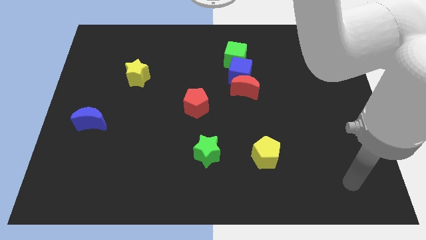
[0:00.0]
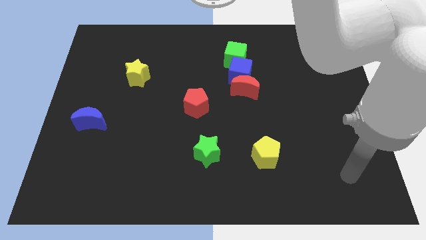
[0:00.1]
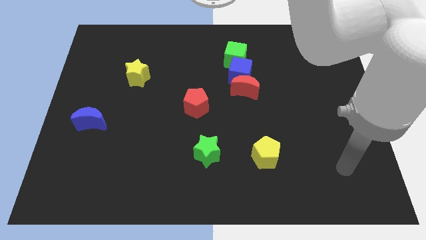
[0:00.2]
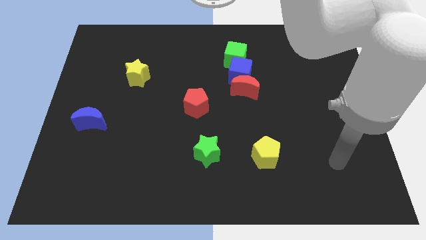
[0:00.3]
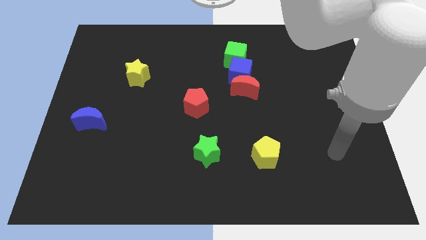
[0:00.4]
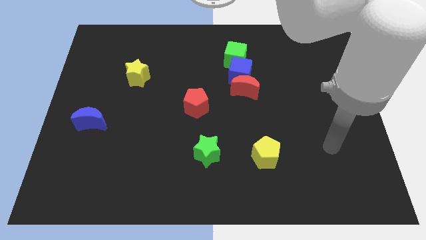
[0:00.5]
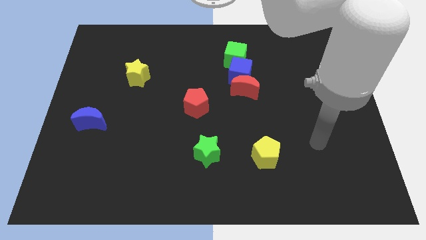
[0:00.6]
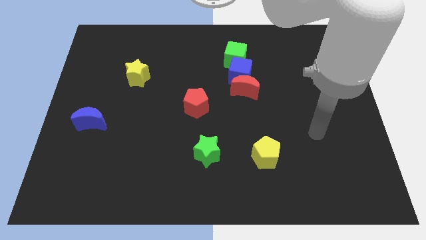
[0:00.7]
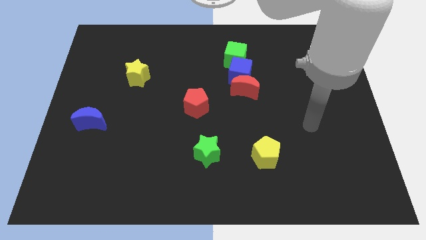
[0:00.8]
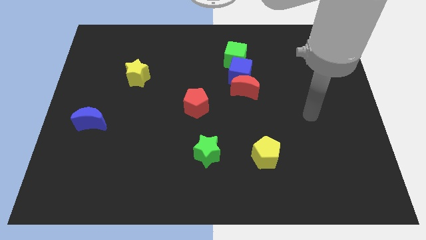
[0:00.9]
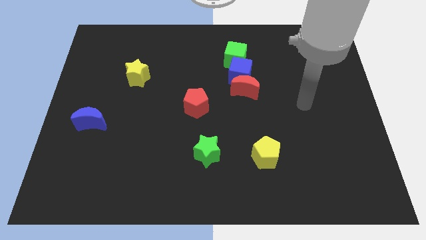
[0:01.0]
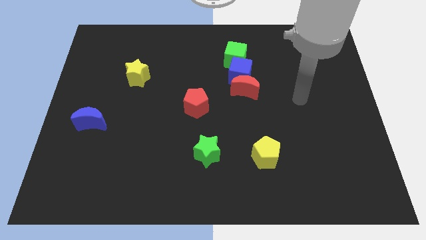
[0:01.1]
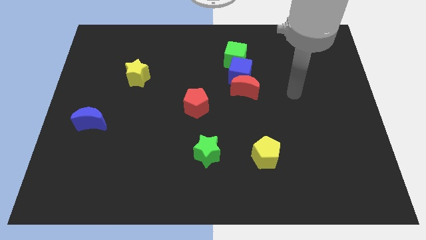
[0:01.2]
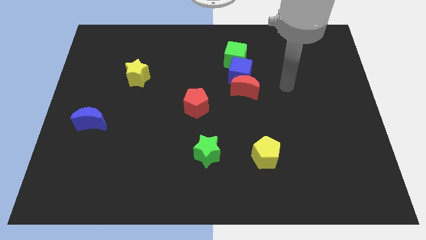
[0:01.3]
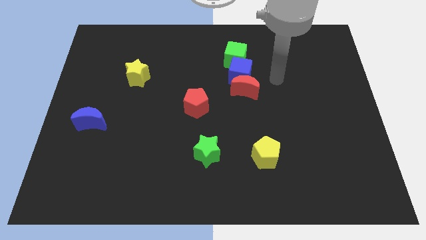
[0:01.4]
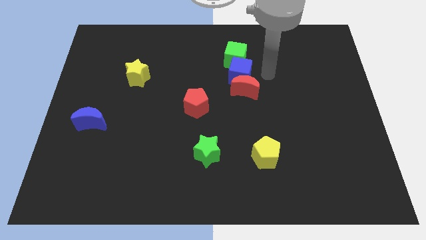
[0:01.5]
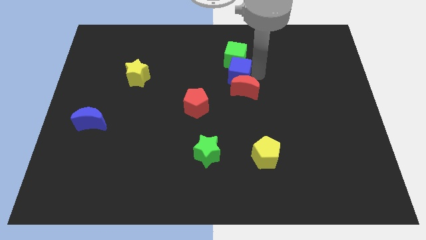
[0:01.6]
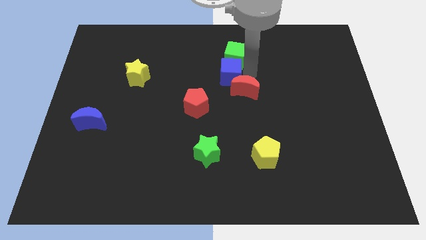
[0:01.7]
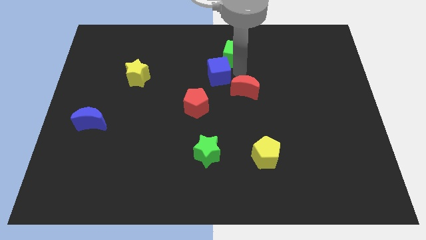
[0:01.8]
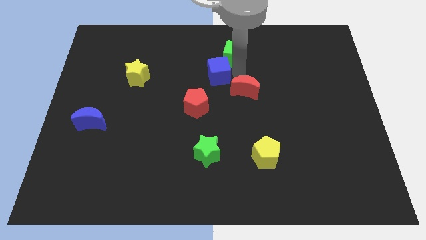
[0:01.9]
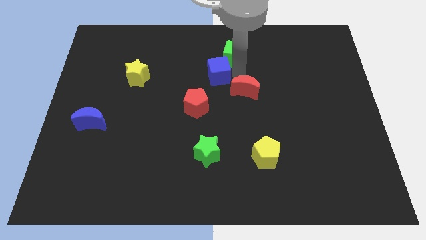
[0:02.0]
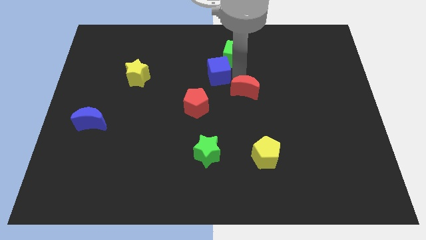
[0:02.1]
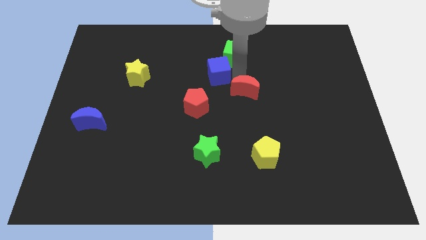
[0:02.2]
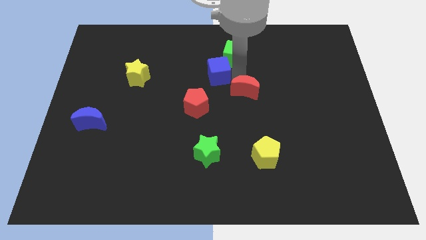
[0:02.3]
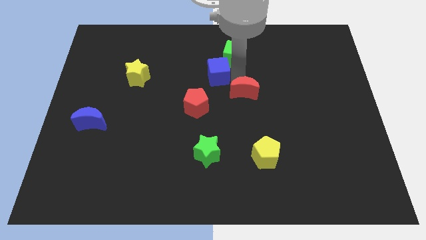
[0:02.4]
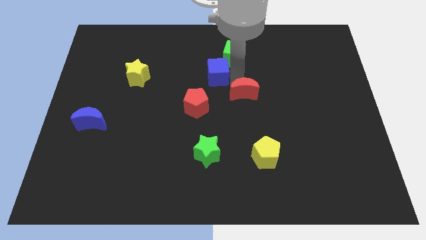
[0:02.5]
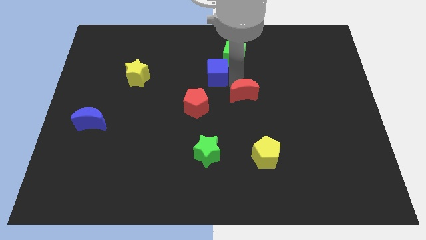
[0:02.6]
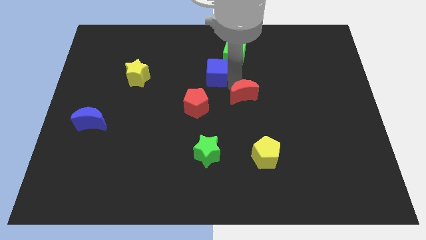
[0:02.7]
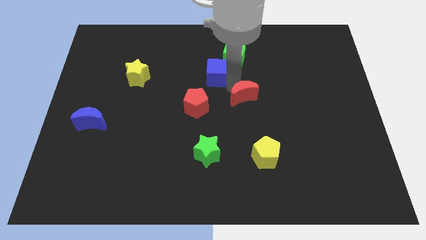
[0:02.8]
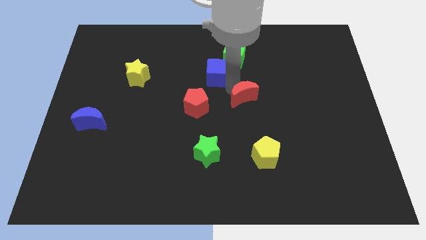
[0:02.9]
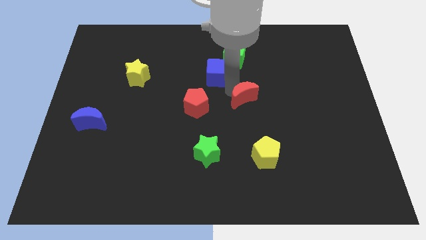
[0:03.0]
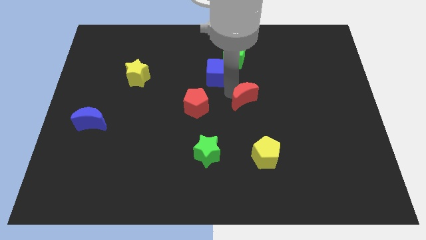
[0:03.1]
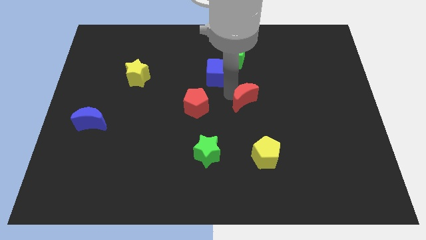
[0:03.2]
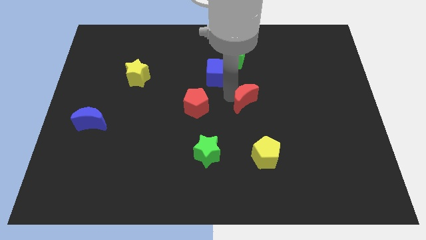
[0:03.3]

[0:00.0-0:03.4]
move the red moon away from the blue cube

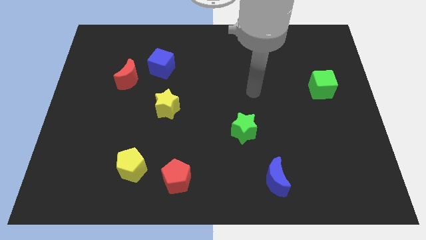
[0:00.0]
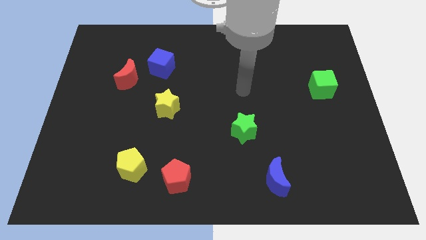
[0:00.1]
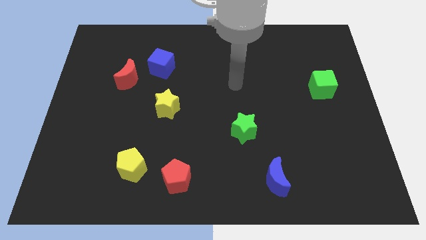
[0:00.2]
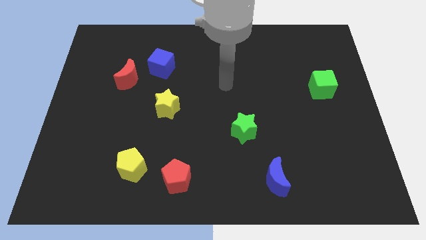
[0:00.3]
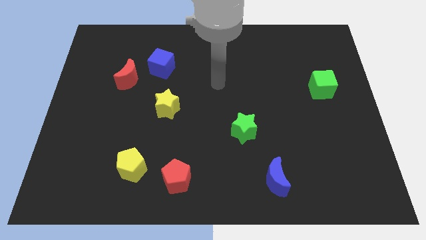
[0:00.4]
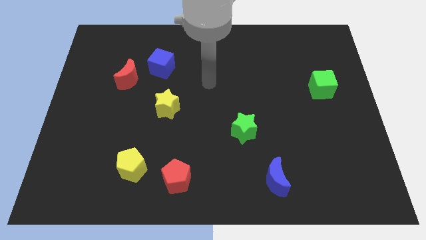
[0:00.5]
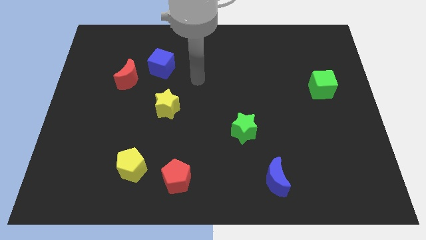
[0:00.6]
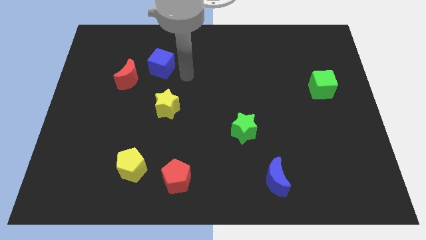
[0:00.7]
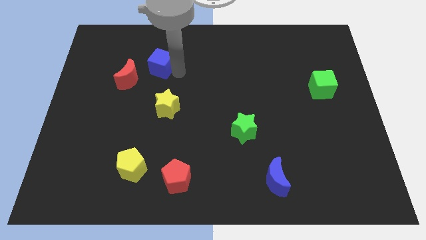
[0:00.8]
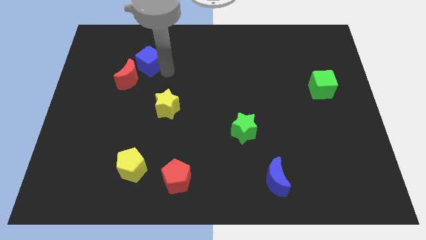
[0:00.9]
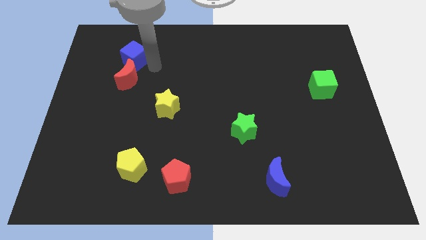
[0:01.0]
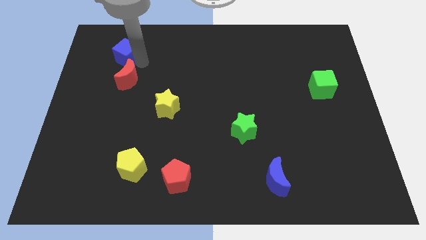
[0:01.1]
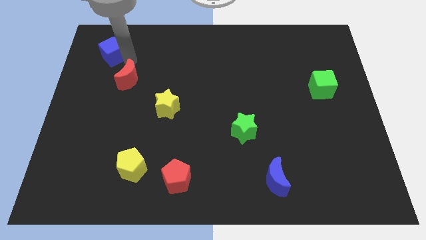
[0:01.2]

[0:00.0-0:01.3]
pull the red moon apart from the blue cube

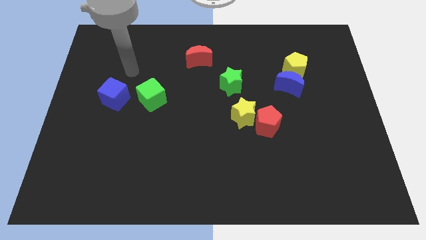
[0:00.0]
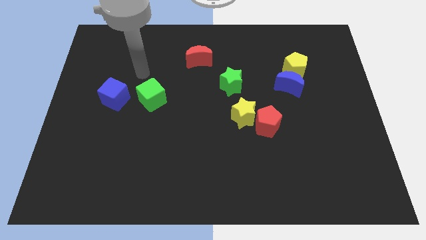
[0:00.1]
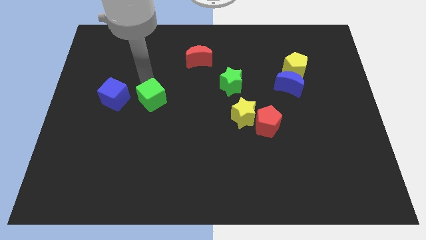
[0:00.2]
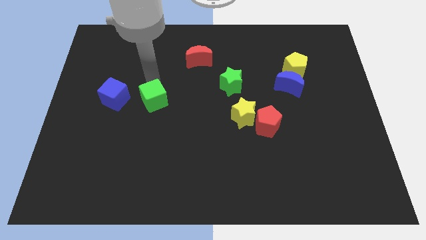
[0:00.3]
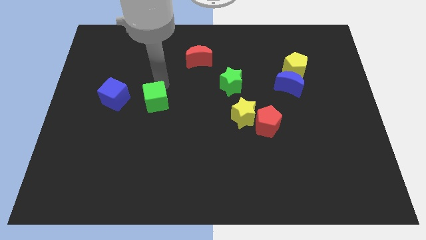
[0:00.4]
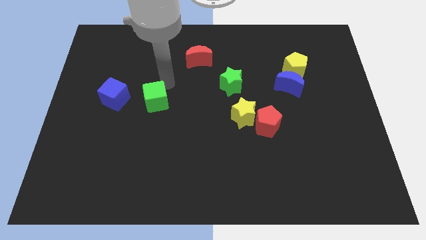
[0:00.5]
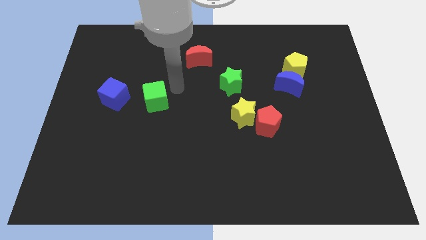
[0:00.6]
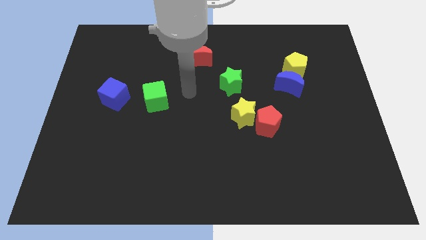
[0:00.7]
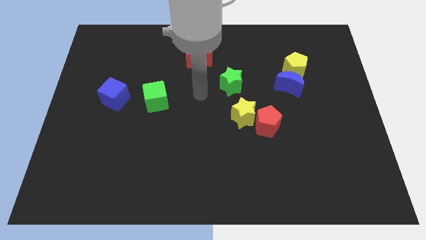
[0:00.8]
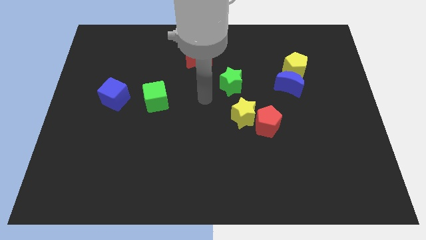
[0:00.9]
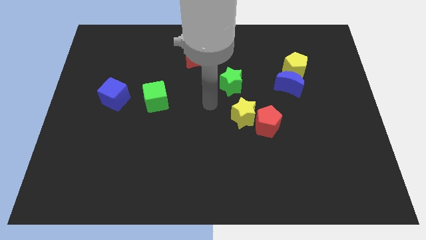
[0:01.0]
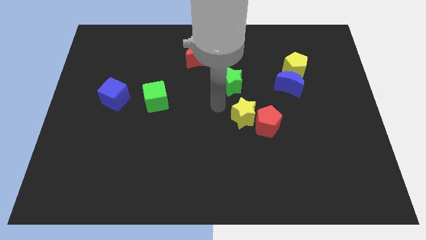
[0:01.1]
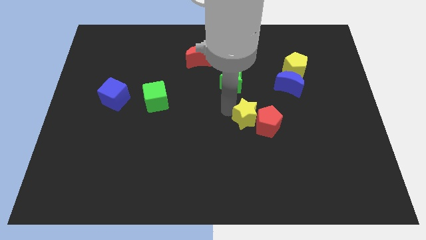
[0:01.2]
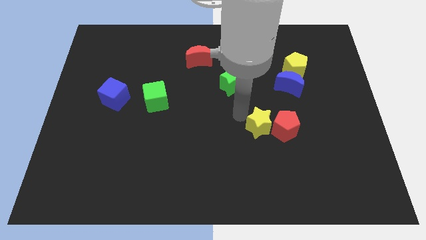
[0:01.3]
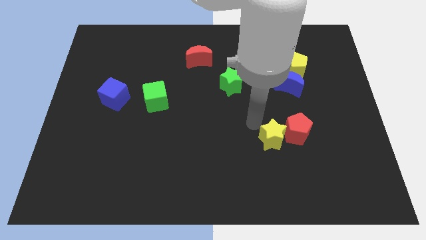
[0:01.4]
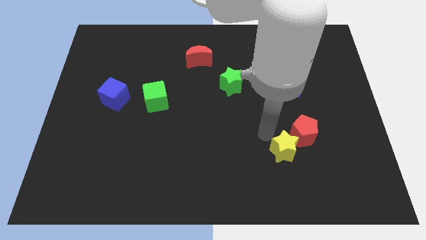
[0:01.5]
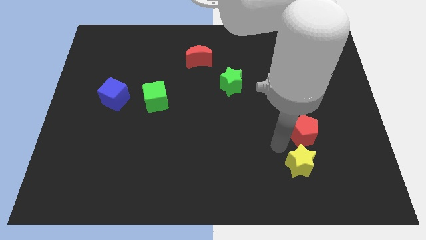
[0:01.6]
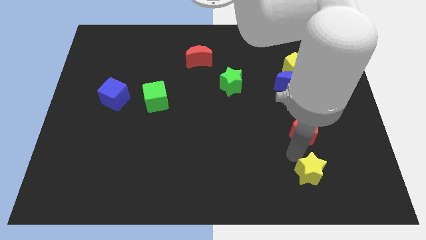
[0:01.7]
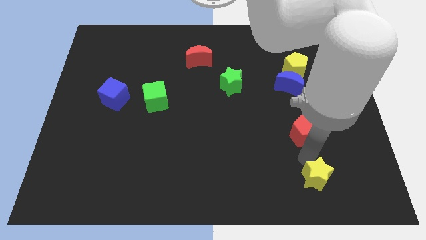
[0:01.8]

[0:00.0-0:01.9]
move the red pentagon away from the yellow star

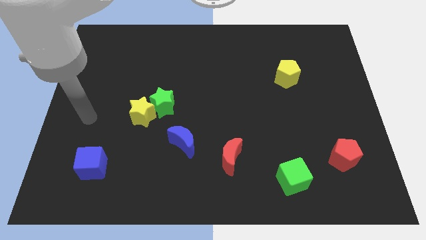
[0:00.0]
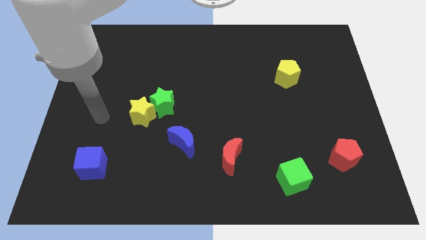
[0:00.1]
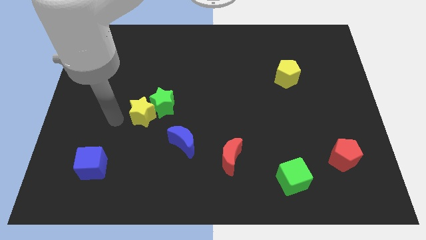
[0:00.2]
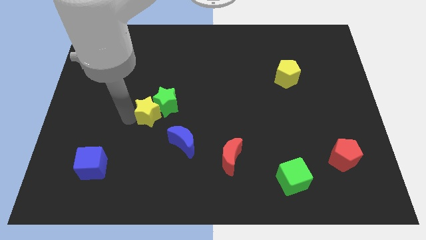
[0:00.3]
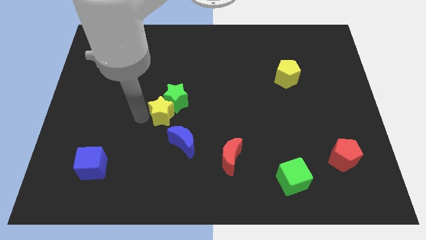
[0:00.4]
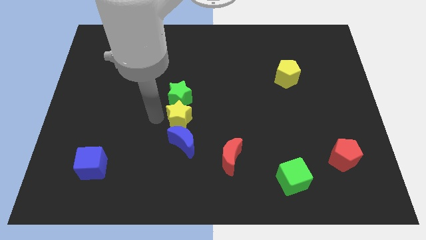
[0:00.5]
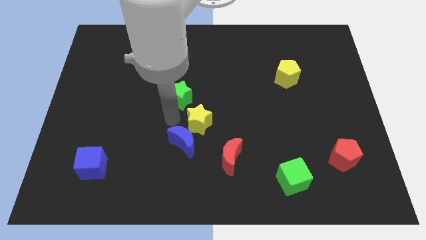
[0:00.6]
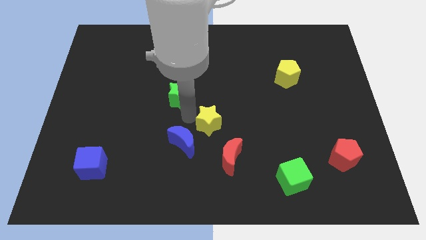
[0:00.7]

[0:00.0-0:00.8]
separate the green star from the yellow star

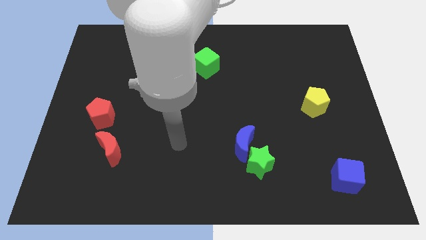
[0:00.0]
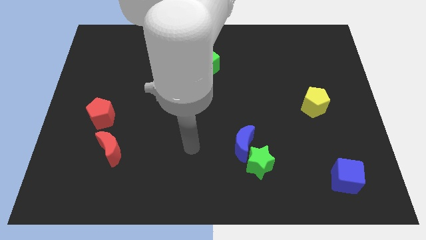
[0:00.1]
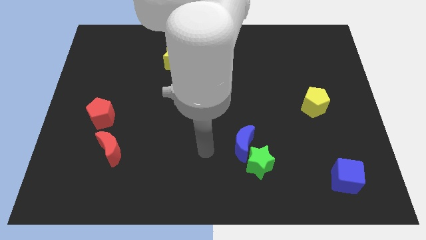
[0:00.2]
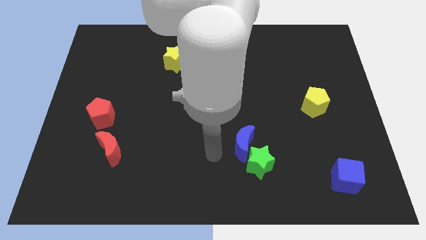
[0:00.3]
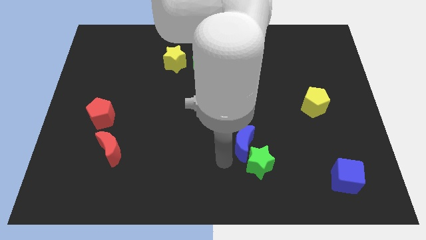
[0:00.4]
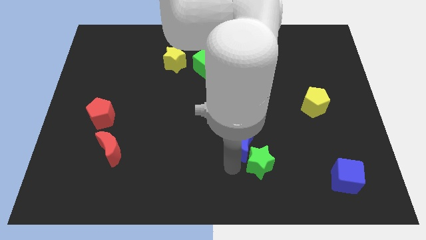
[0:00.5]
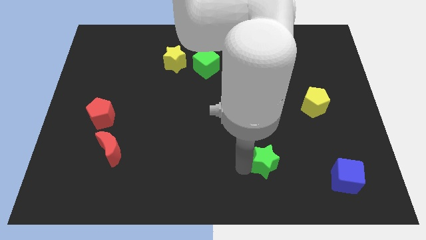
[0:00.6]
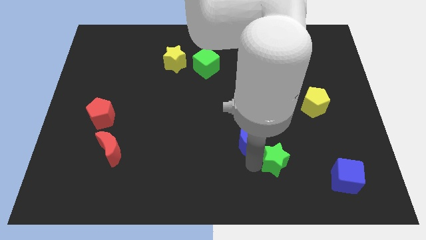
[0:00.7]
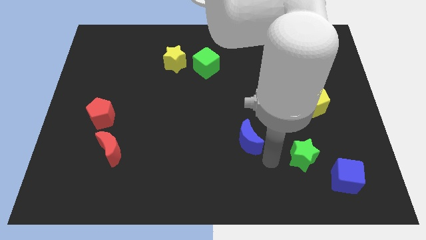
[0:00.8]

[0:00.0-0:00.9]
separate the blue moon from the green star

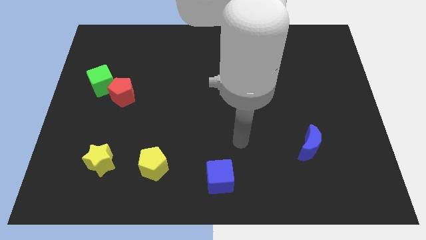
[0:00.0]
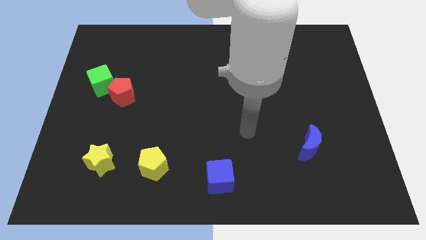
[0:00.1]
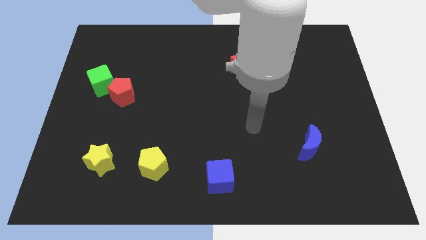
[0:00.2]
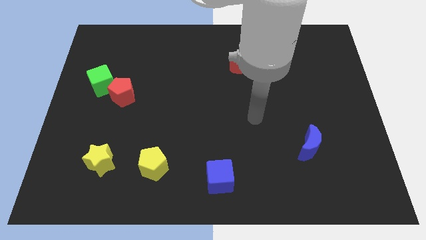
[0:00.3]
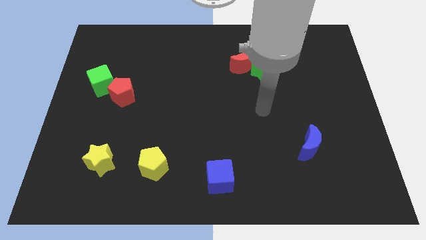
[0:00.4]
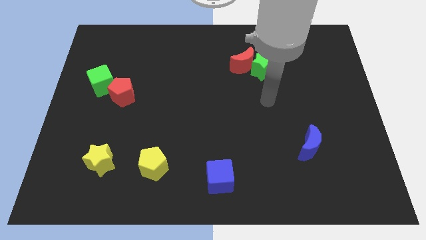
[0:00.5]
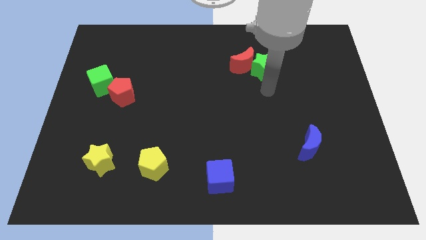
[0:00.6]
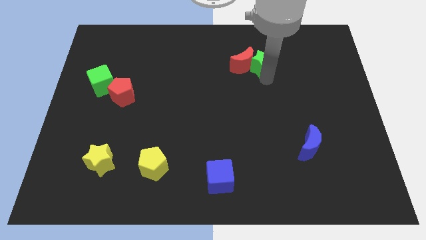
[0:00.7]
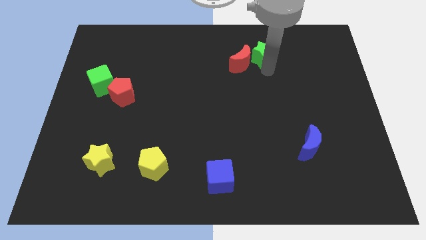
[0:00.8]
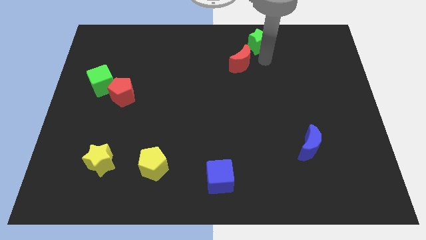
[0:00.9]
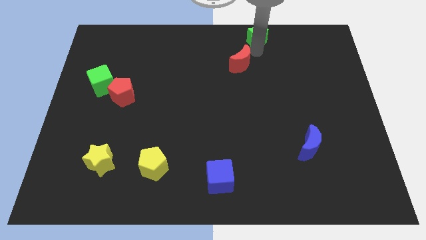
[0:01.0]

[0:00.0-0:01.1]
separate the red moon from the green star
